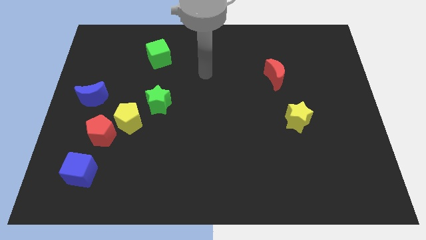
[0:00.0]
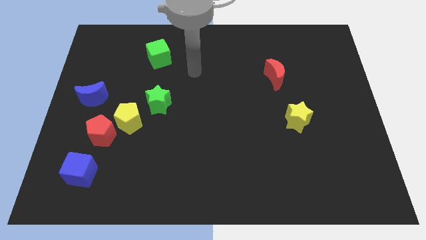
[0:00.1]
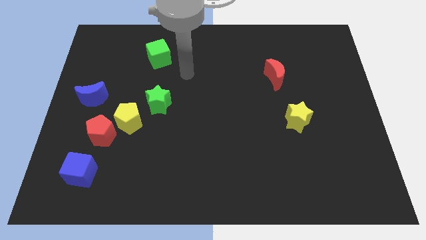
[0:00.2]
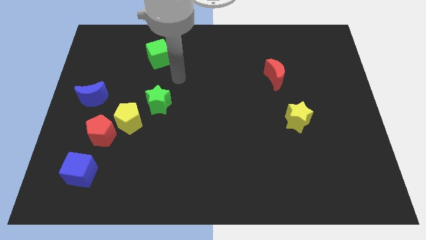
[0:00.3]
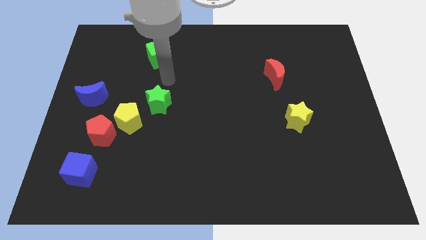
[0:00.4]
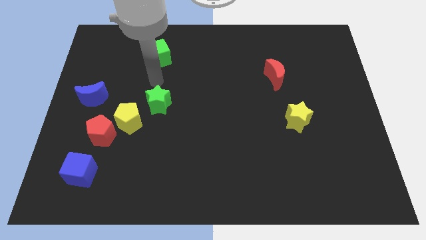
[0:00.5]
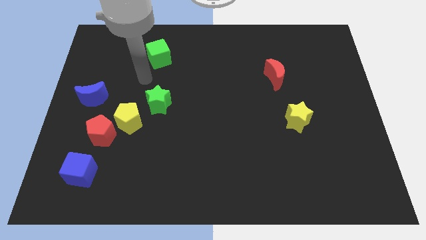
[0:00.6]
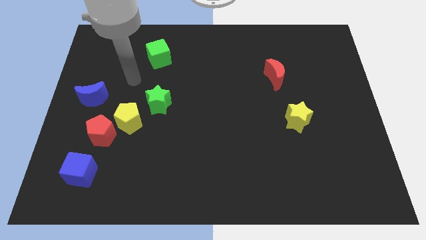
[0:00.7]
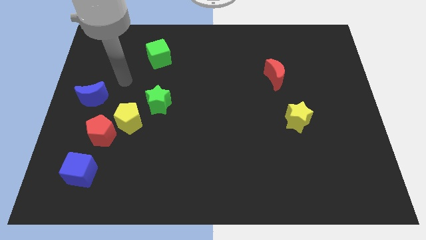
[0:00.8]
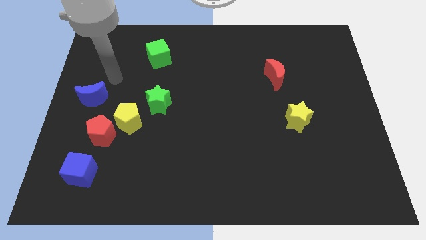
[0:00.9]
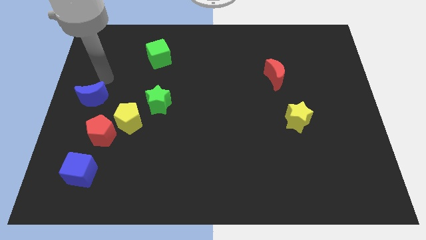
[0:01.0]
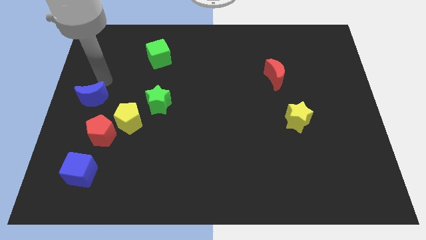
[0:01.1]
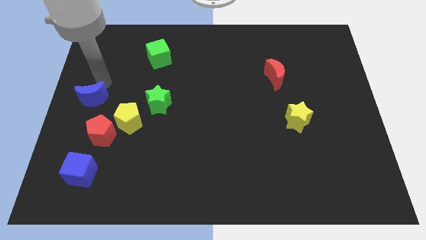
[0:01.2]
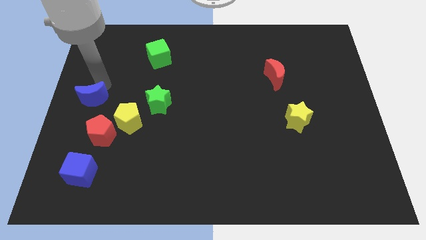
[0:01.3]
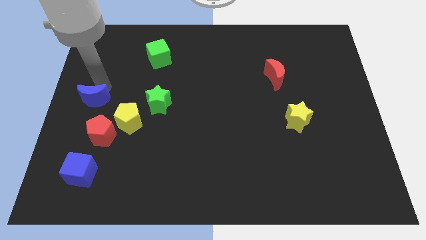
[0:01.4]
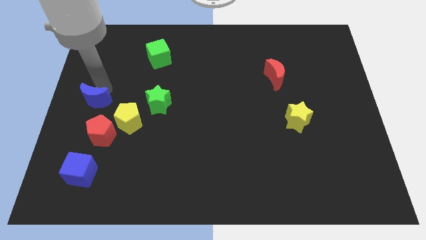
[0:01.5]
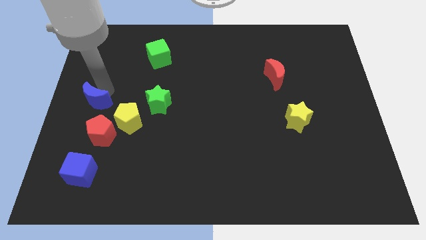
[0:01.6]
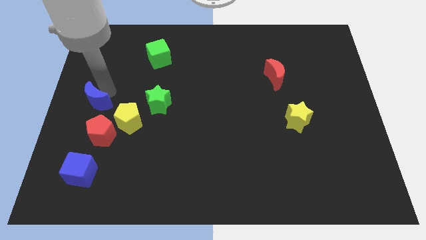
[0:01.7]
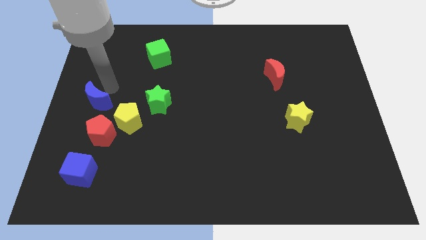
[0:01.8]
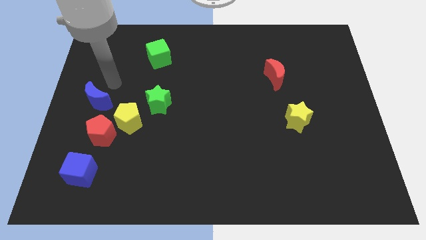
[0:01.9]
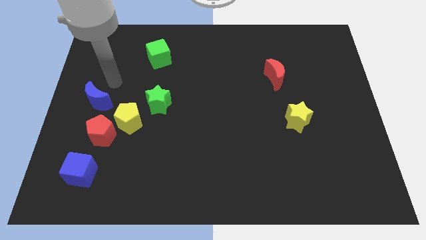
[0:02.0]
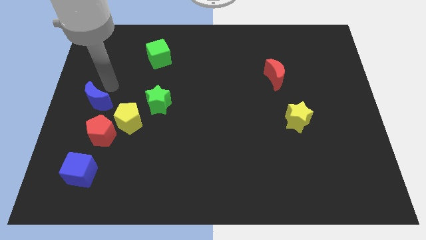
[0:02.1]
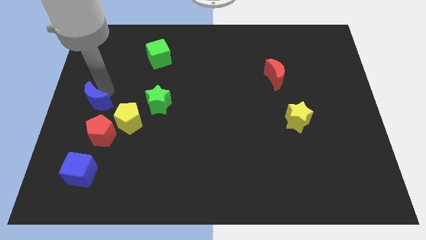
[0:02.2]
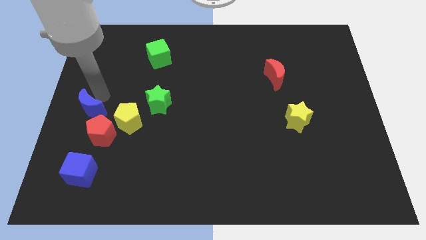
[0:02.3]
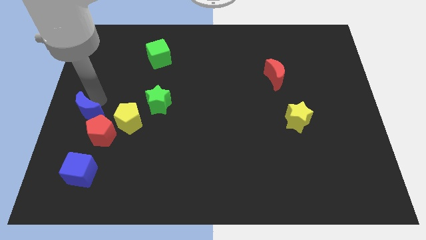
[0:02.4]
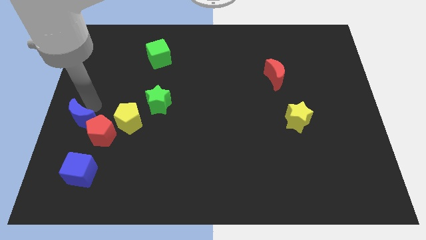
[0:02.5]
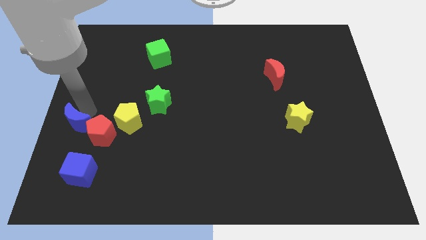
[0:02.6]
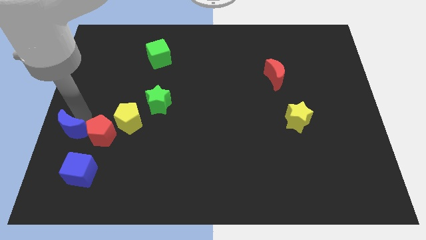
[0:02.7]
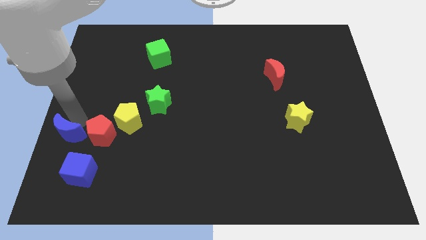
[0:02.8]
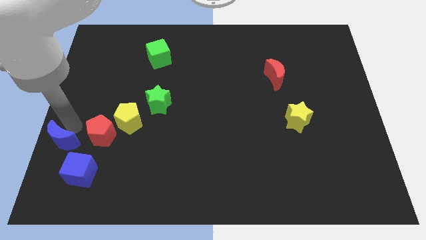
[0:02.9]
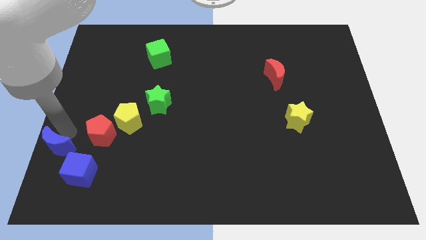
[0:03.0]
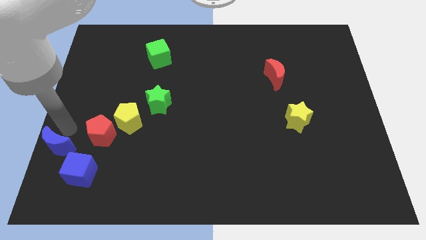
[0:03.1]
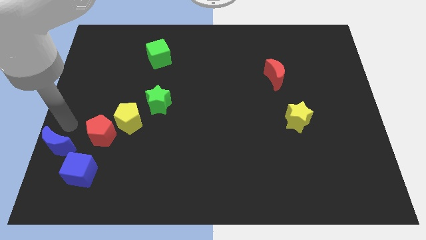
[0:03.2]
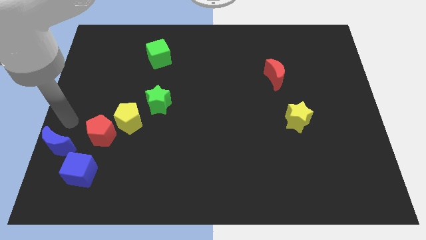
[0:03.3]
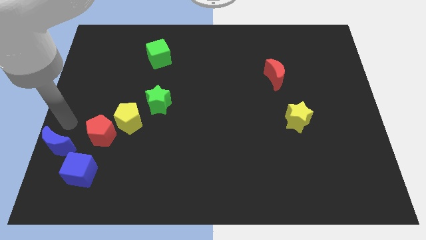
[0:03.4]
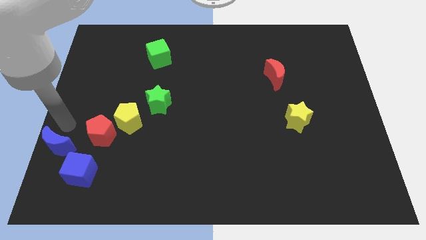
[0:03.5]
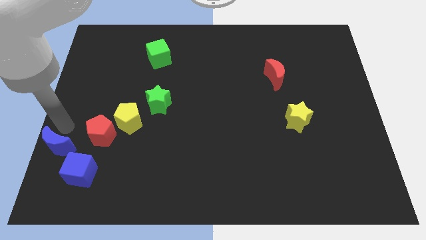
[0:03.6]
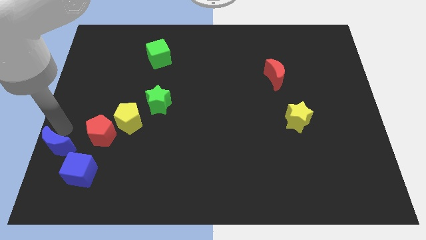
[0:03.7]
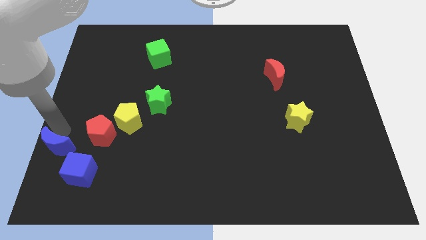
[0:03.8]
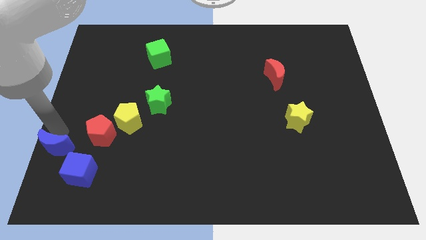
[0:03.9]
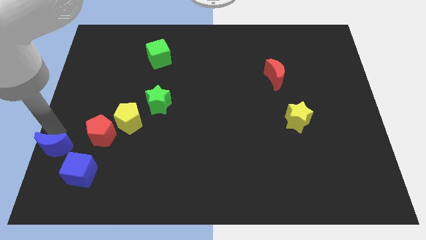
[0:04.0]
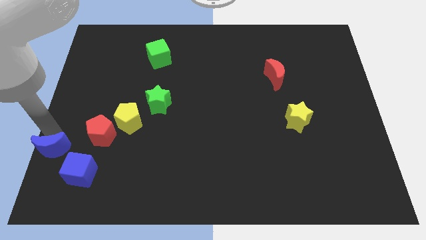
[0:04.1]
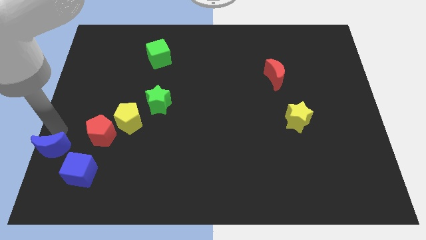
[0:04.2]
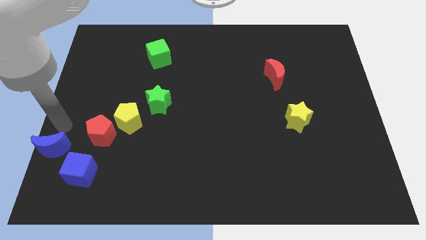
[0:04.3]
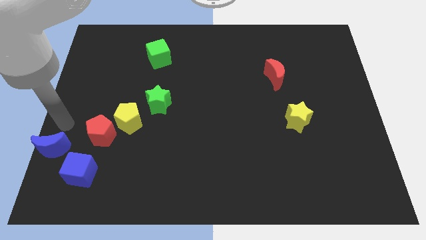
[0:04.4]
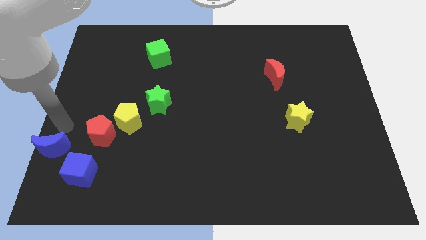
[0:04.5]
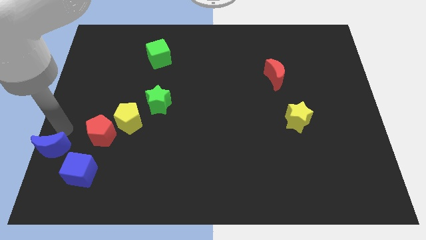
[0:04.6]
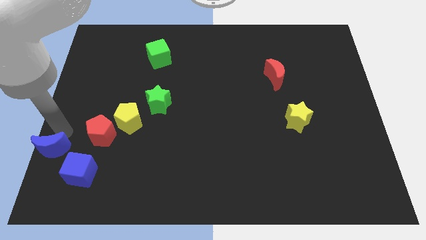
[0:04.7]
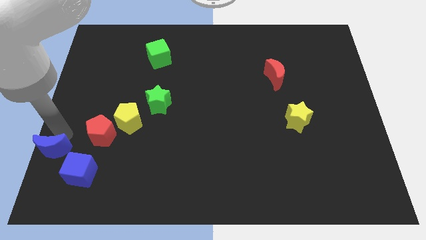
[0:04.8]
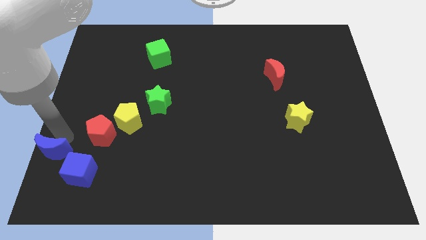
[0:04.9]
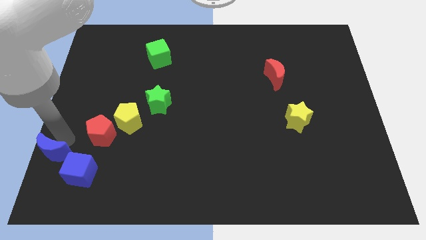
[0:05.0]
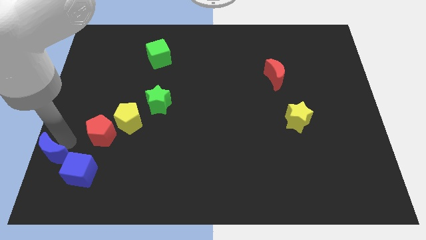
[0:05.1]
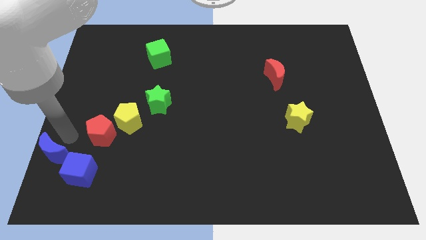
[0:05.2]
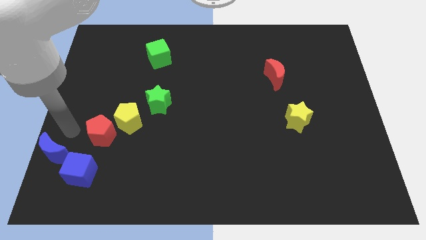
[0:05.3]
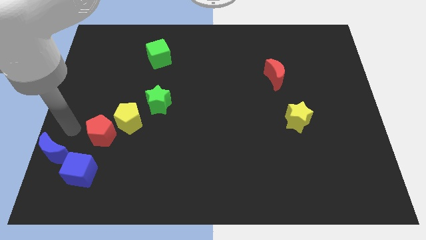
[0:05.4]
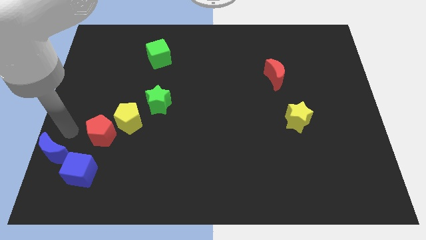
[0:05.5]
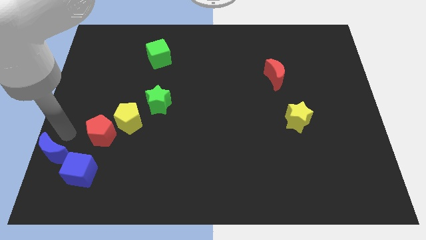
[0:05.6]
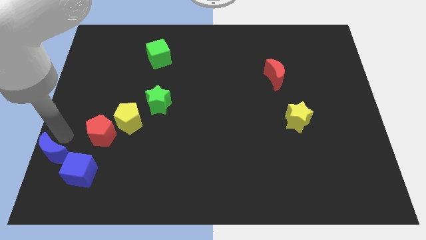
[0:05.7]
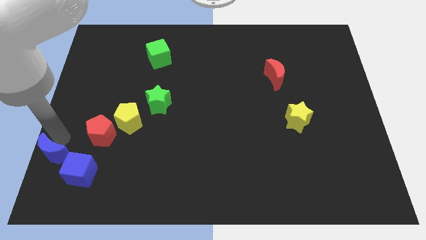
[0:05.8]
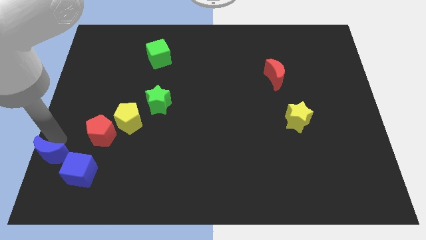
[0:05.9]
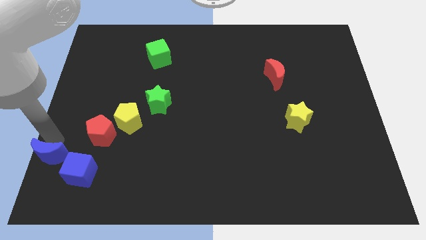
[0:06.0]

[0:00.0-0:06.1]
move the blue moon to the bottom left

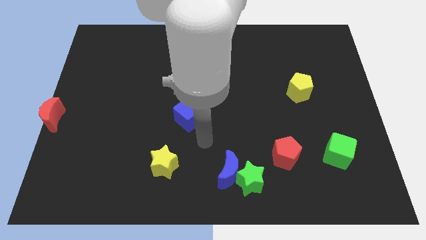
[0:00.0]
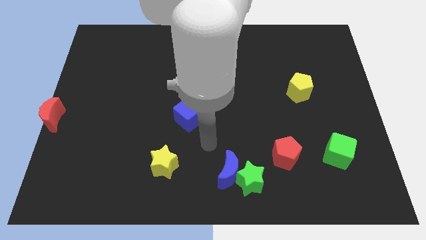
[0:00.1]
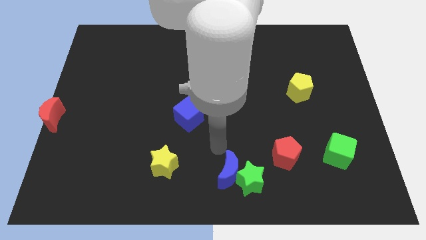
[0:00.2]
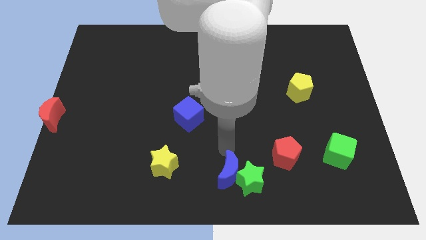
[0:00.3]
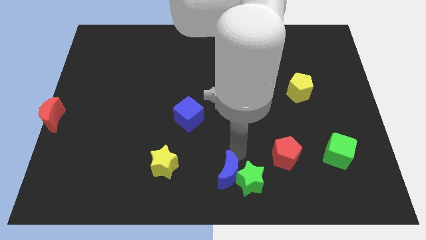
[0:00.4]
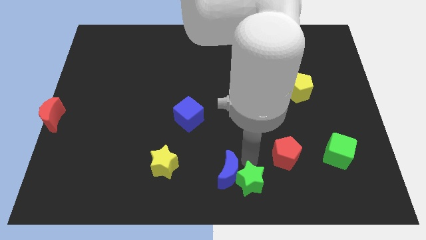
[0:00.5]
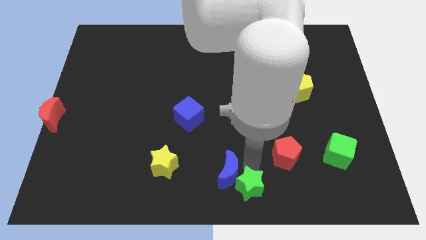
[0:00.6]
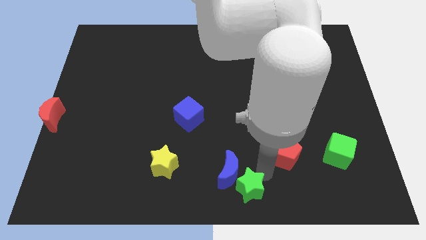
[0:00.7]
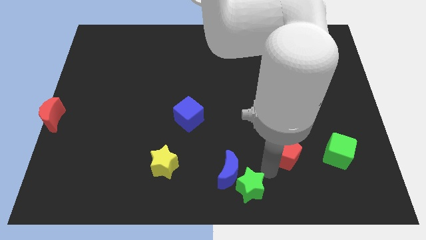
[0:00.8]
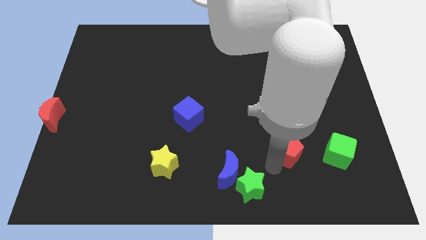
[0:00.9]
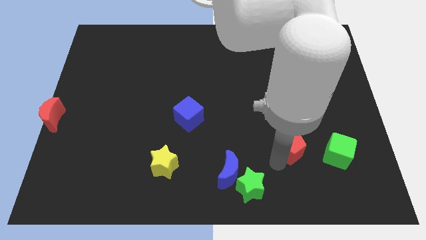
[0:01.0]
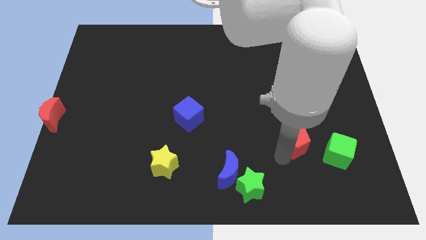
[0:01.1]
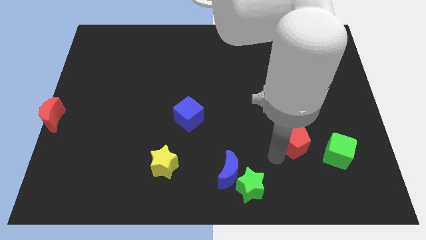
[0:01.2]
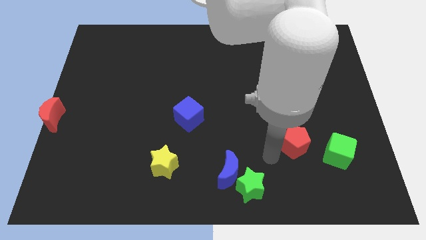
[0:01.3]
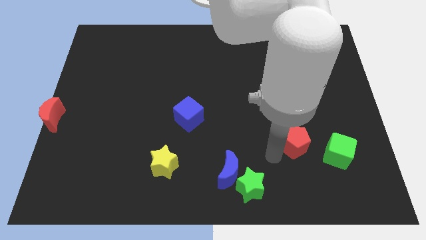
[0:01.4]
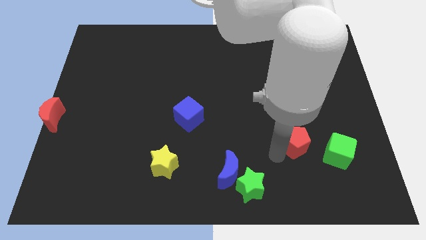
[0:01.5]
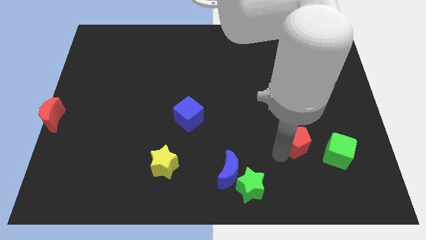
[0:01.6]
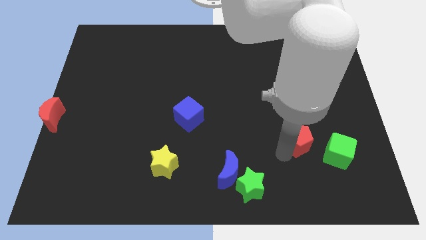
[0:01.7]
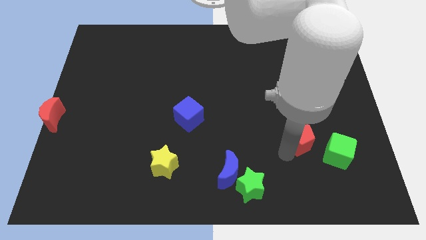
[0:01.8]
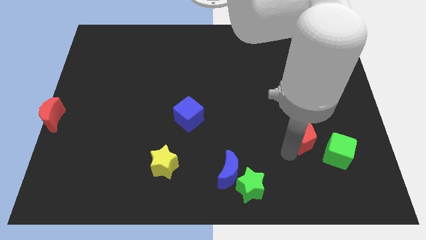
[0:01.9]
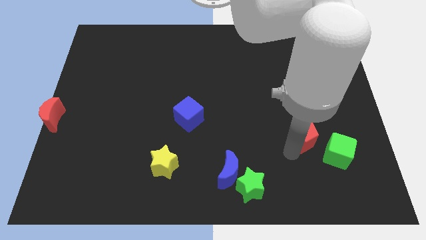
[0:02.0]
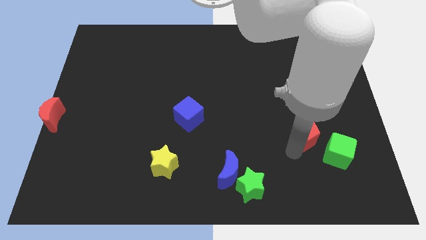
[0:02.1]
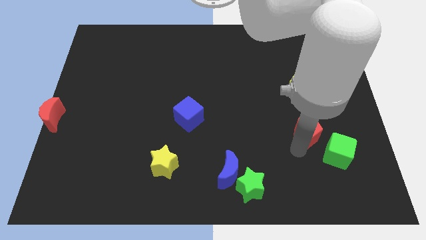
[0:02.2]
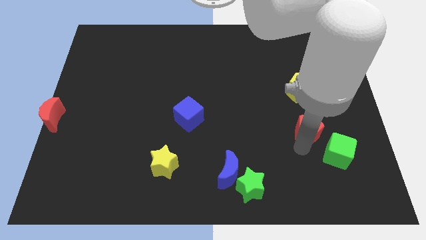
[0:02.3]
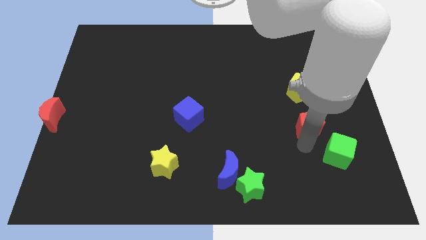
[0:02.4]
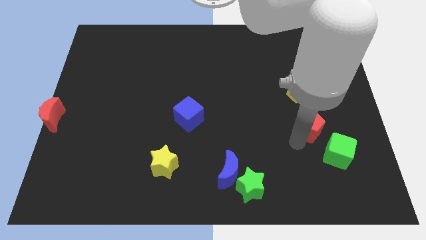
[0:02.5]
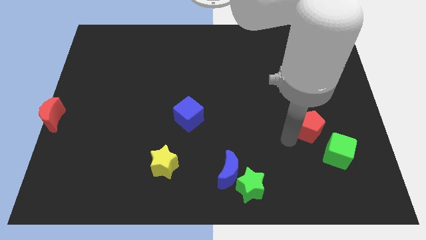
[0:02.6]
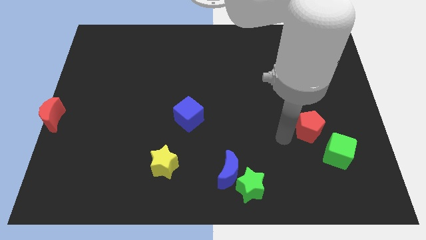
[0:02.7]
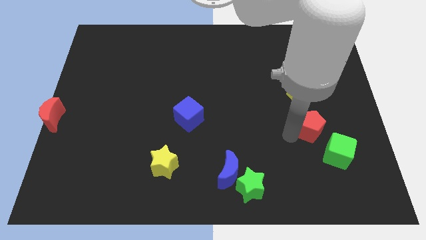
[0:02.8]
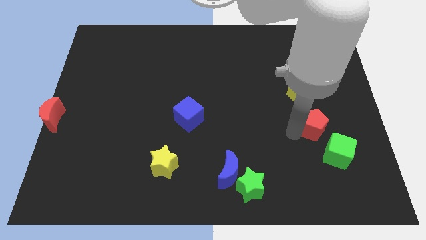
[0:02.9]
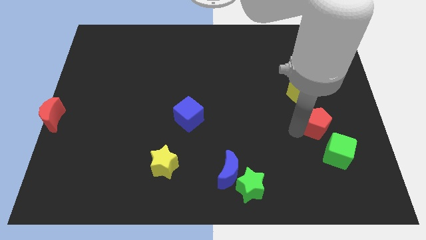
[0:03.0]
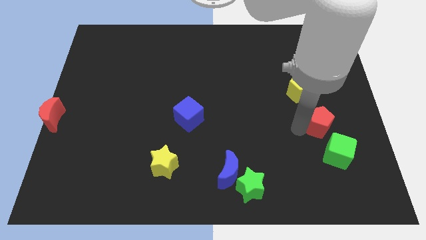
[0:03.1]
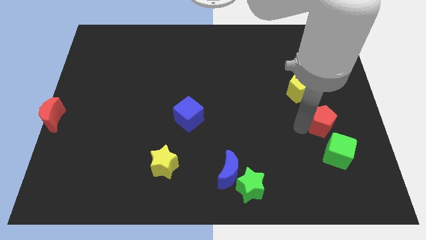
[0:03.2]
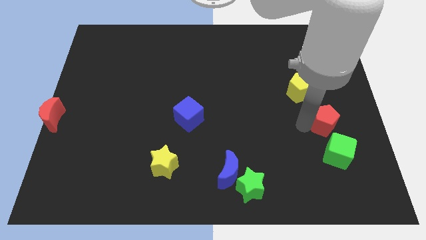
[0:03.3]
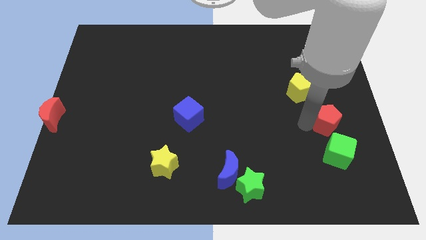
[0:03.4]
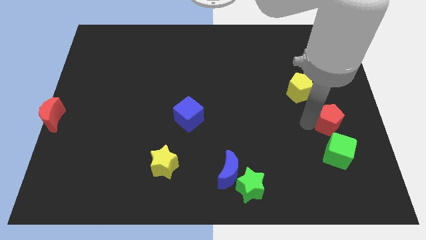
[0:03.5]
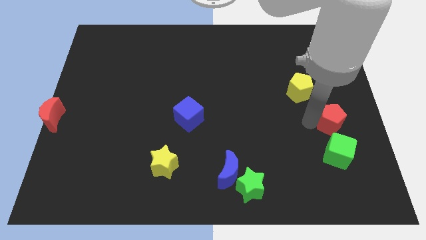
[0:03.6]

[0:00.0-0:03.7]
slide the red pentagon to the center right
